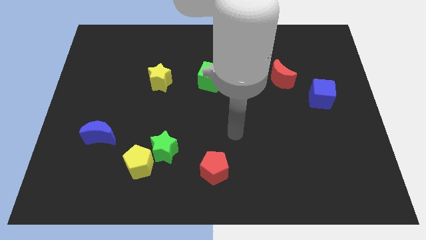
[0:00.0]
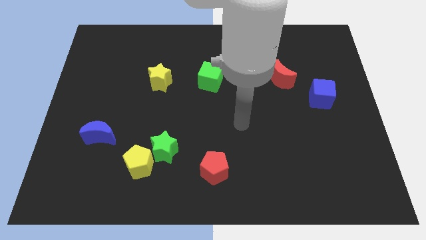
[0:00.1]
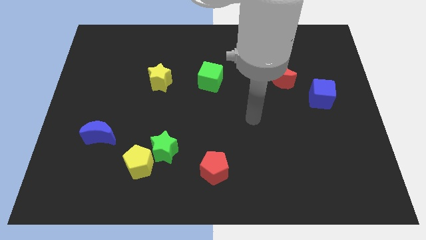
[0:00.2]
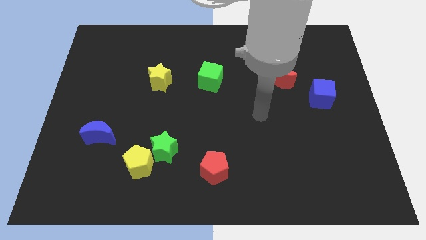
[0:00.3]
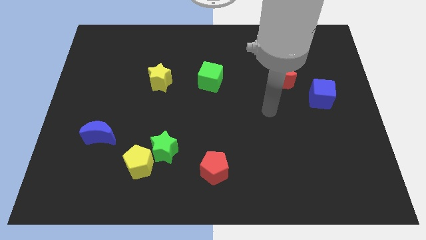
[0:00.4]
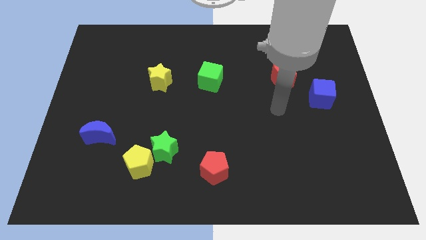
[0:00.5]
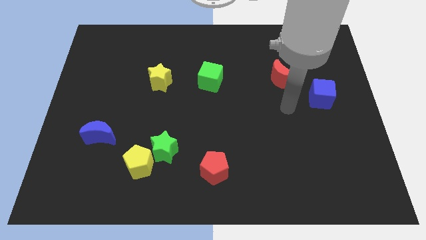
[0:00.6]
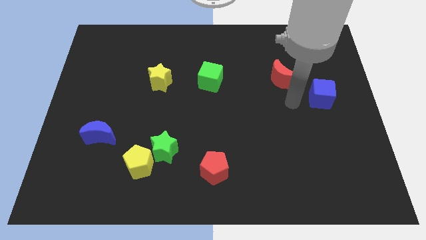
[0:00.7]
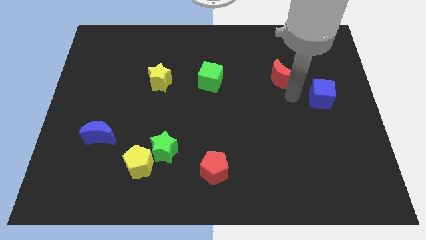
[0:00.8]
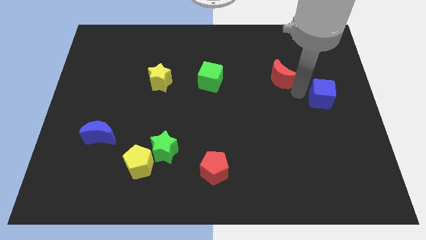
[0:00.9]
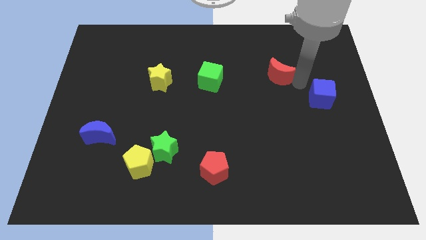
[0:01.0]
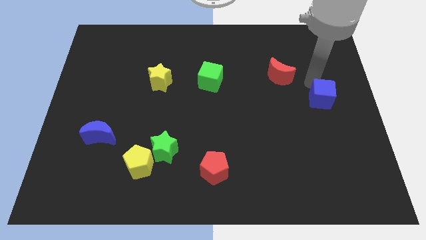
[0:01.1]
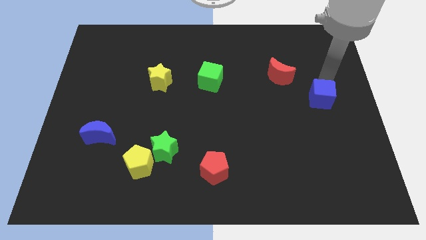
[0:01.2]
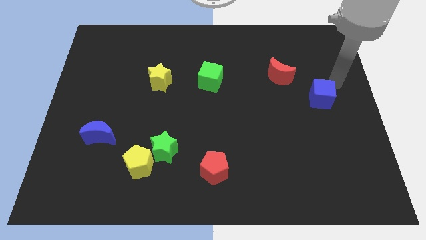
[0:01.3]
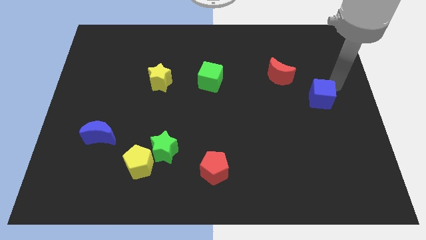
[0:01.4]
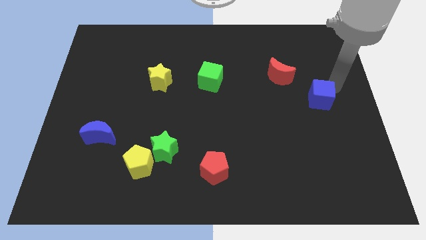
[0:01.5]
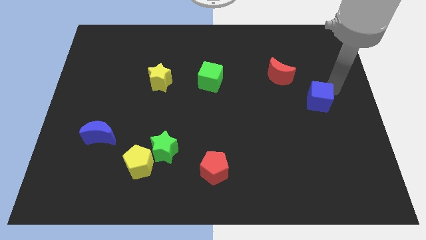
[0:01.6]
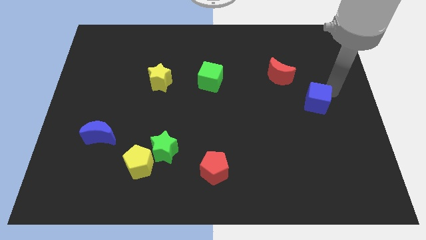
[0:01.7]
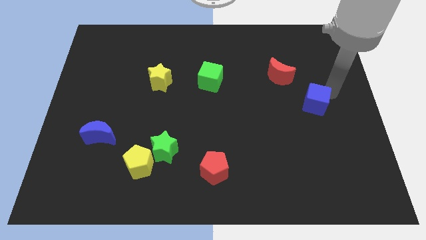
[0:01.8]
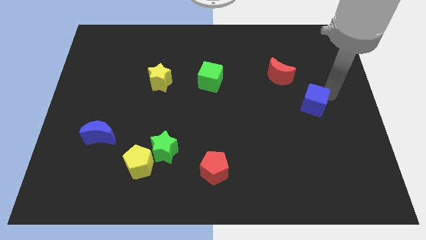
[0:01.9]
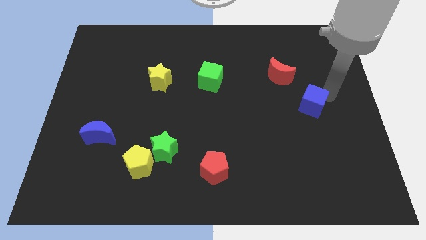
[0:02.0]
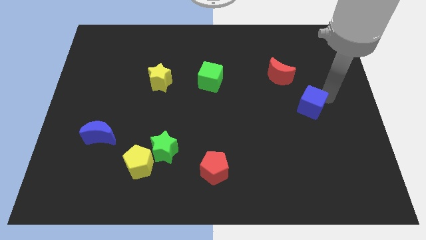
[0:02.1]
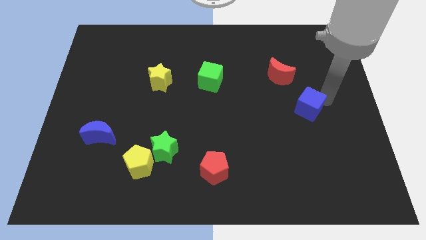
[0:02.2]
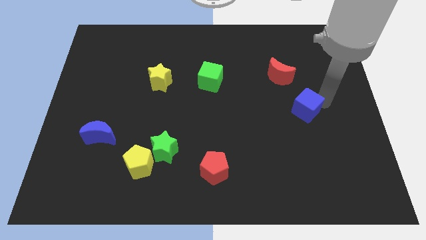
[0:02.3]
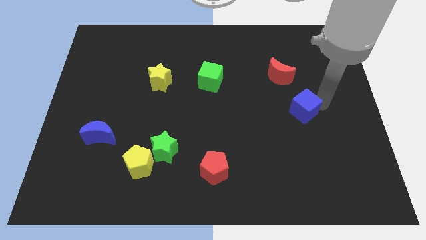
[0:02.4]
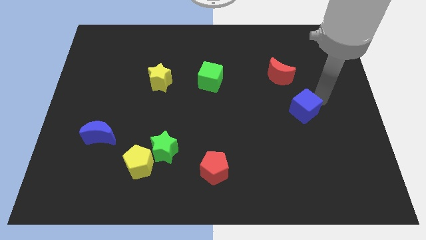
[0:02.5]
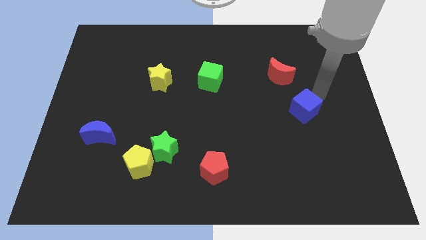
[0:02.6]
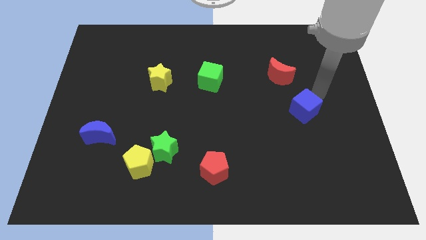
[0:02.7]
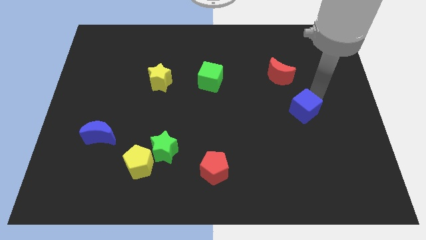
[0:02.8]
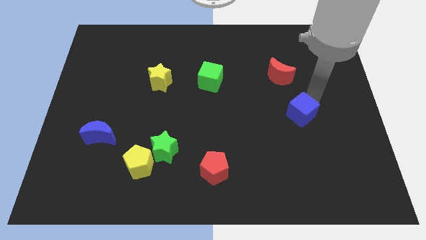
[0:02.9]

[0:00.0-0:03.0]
push the blue cube a little diagonally downwards and left

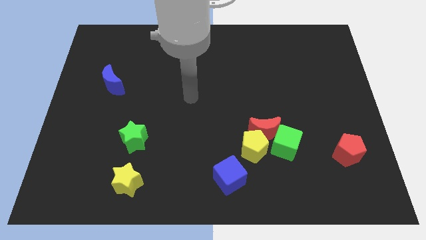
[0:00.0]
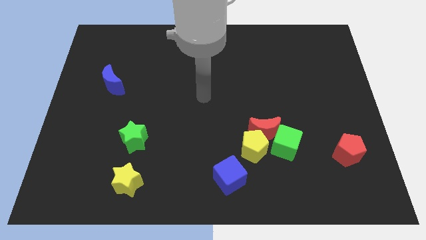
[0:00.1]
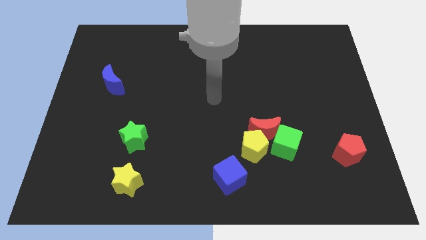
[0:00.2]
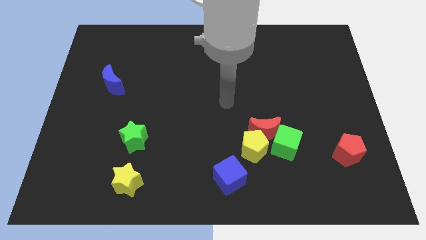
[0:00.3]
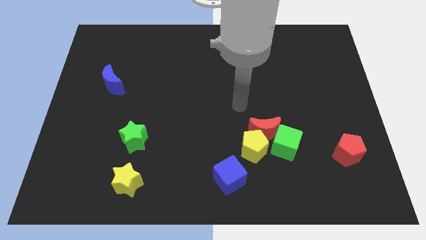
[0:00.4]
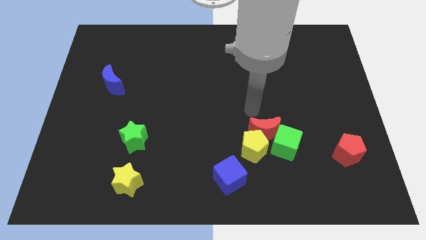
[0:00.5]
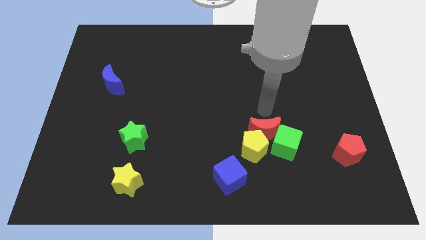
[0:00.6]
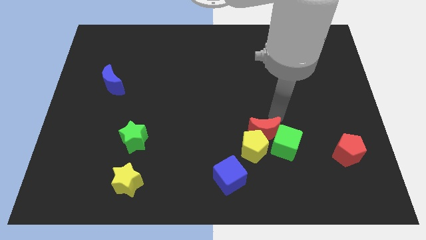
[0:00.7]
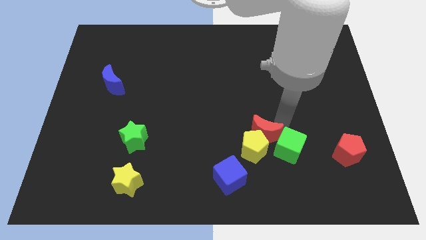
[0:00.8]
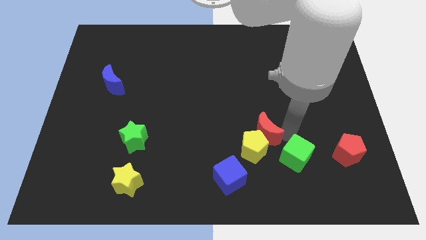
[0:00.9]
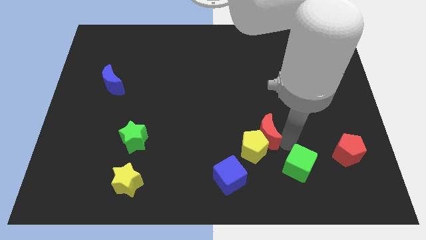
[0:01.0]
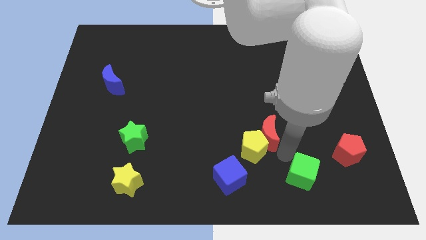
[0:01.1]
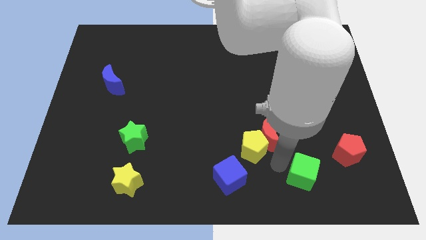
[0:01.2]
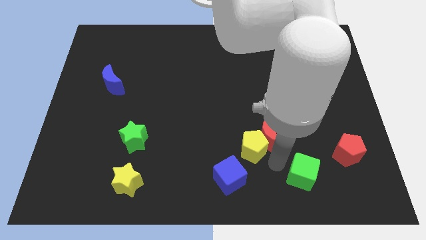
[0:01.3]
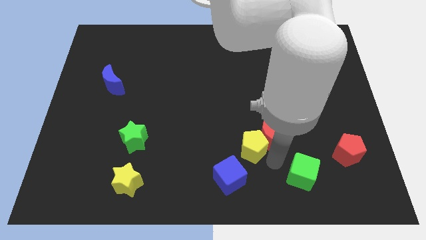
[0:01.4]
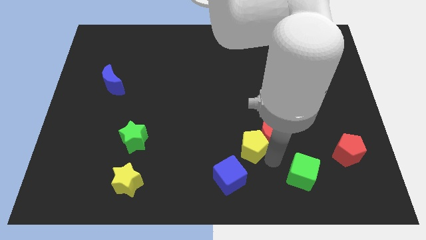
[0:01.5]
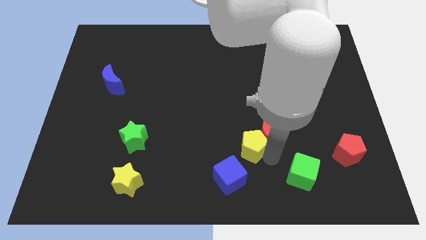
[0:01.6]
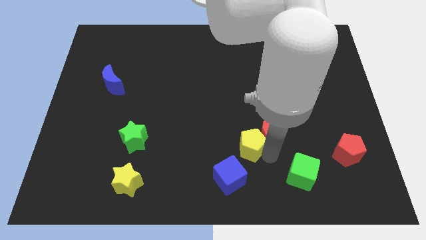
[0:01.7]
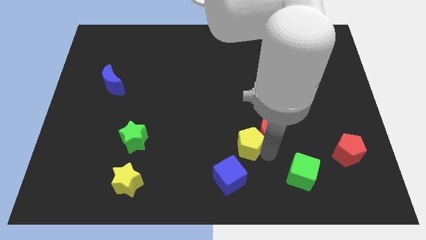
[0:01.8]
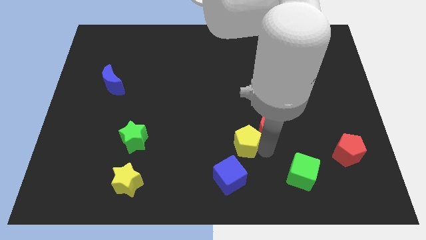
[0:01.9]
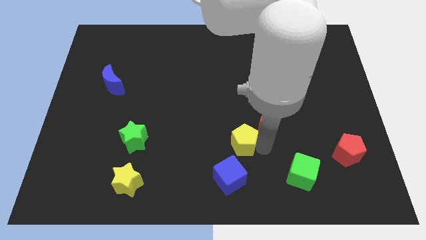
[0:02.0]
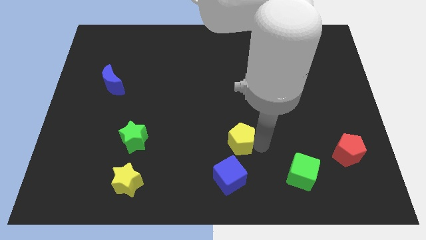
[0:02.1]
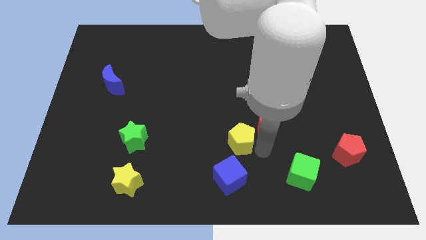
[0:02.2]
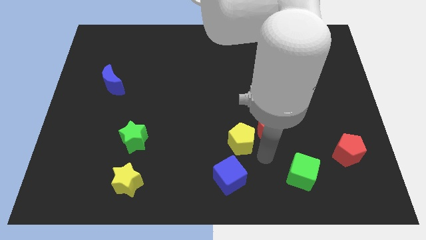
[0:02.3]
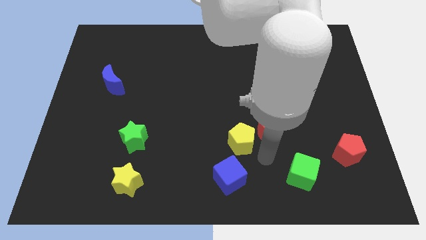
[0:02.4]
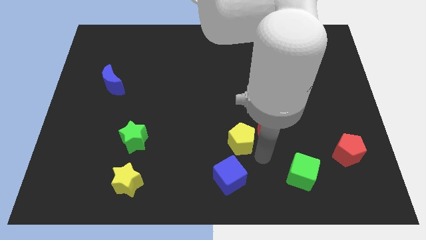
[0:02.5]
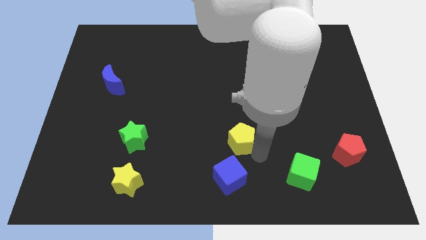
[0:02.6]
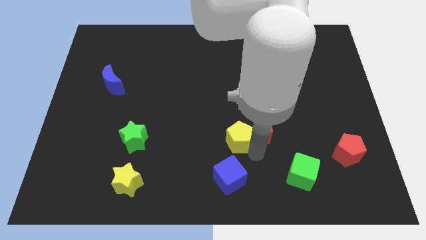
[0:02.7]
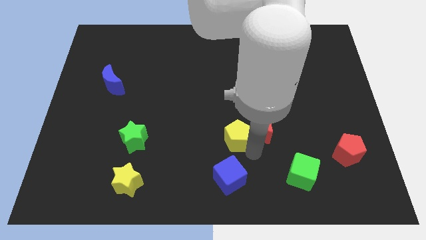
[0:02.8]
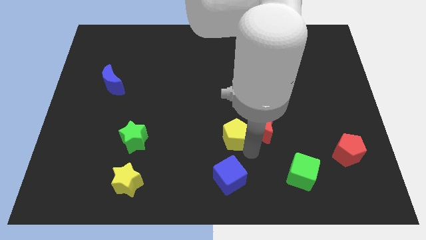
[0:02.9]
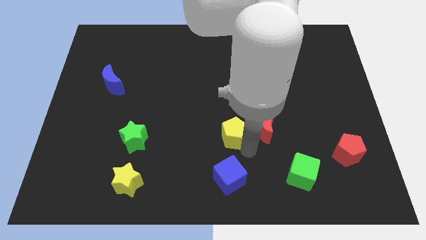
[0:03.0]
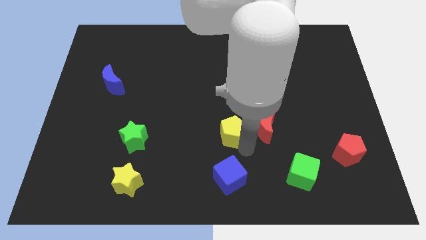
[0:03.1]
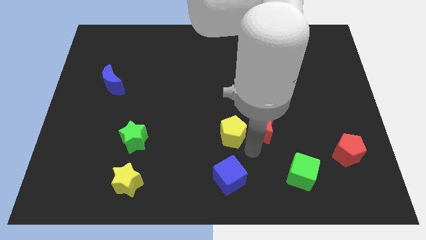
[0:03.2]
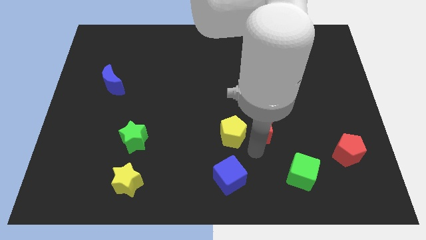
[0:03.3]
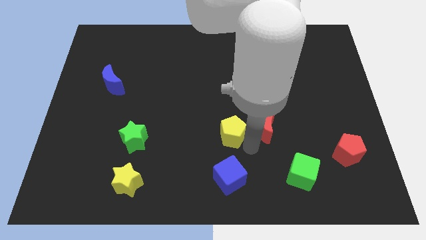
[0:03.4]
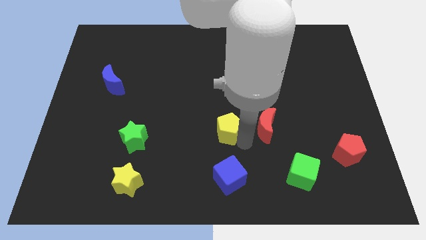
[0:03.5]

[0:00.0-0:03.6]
push the yellow pentagon up and left diagonally a little

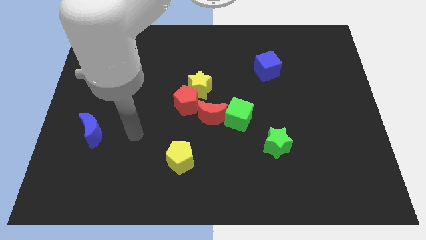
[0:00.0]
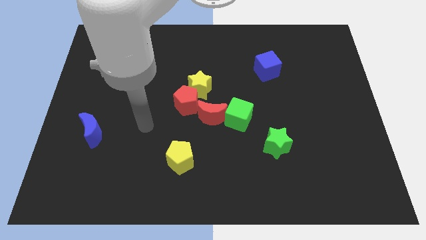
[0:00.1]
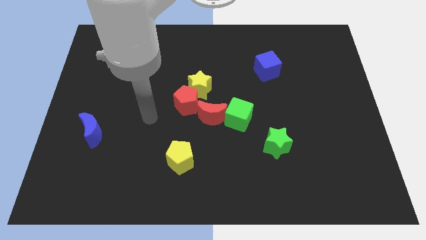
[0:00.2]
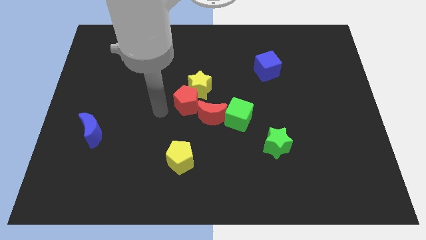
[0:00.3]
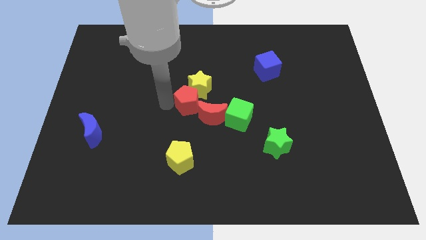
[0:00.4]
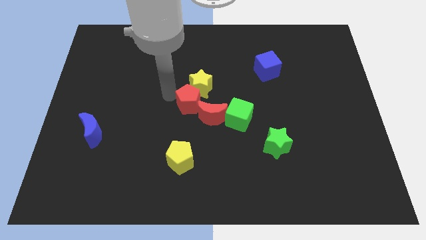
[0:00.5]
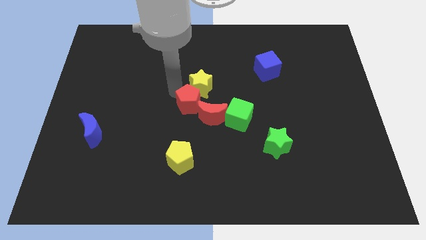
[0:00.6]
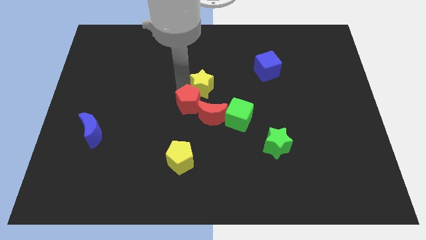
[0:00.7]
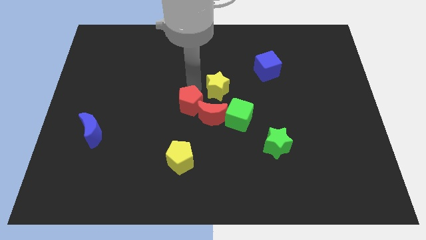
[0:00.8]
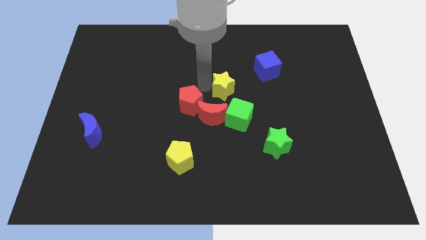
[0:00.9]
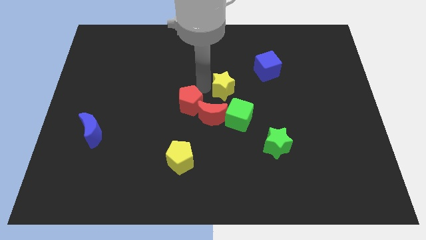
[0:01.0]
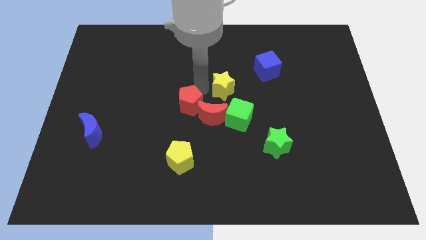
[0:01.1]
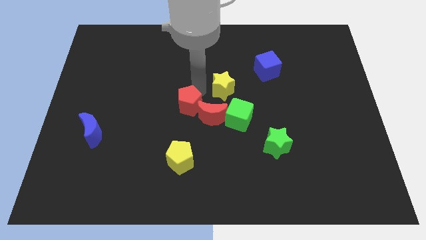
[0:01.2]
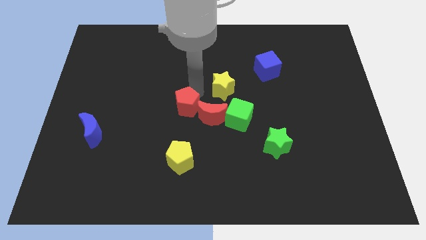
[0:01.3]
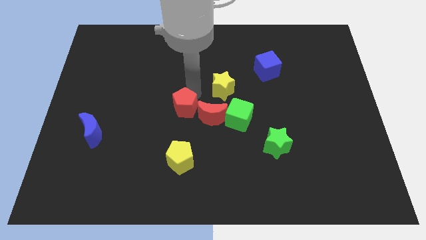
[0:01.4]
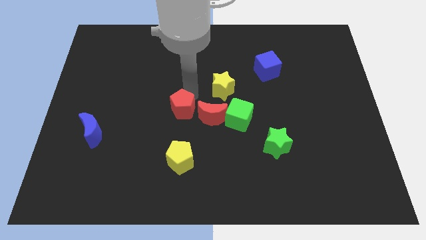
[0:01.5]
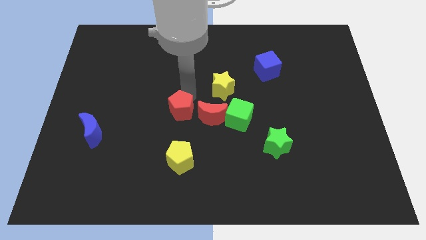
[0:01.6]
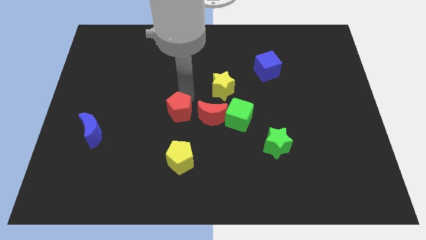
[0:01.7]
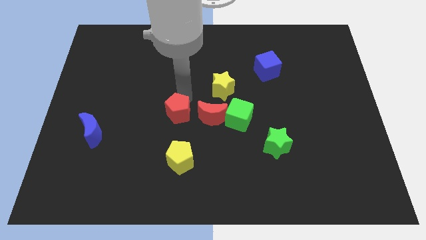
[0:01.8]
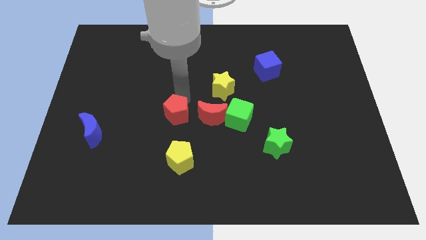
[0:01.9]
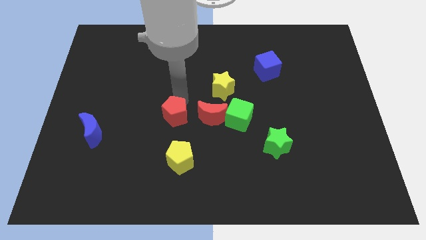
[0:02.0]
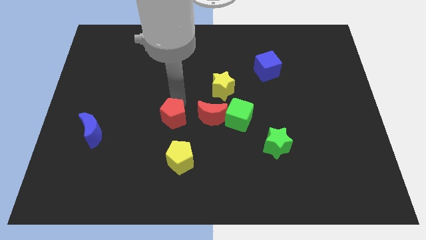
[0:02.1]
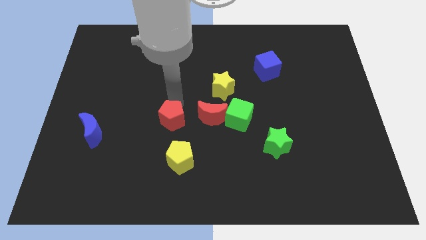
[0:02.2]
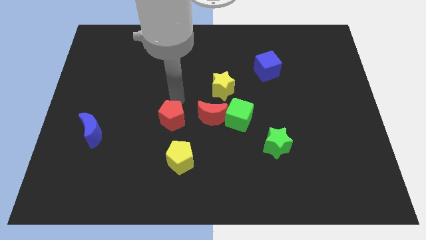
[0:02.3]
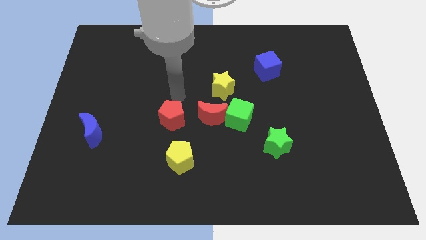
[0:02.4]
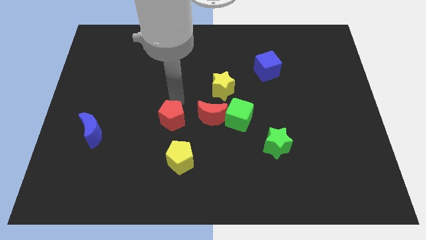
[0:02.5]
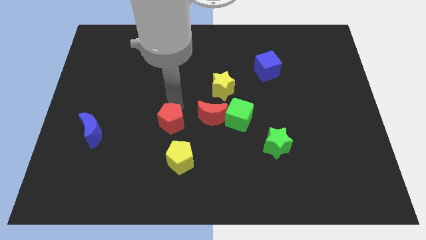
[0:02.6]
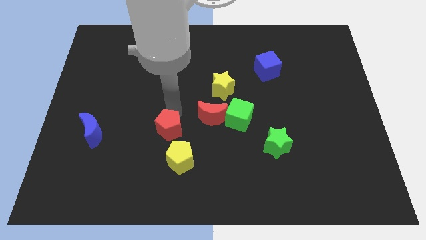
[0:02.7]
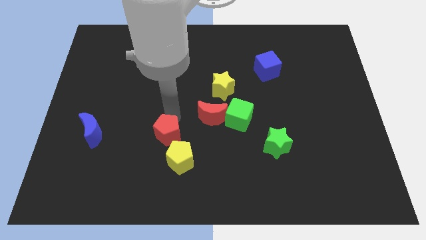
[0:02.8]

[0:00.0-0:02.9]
slide the red pentagon down somewhat
